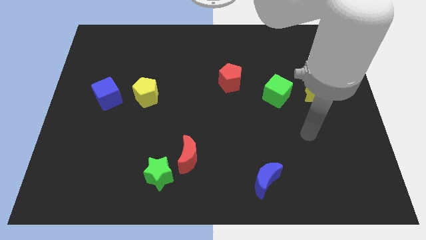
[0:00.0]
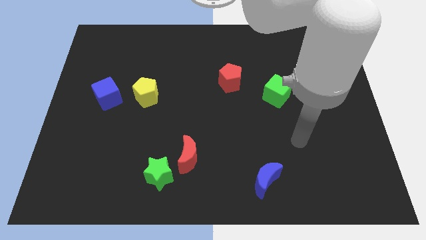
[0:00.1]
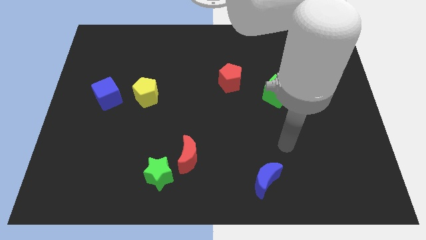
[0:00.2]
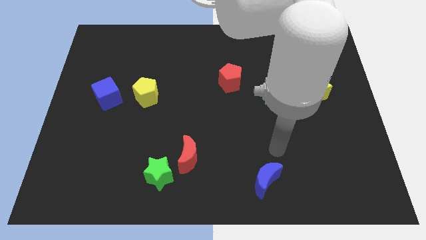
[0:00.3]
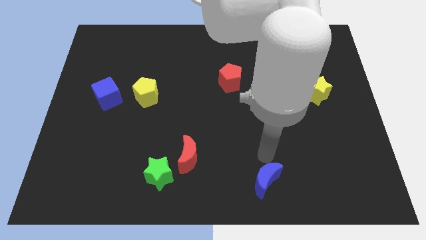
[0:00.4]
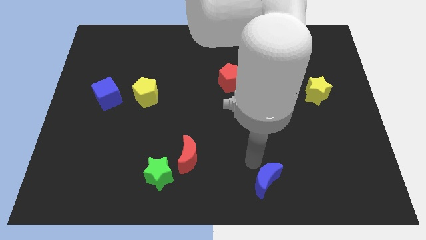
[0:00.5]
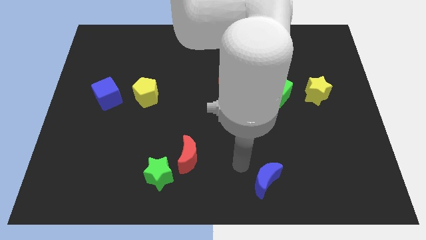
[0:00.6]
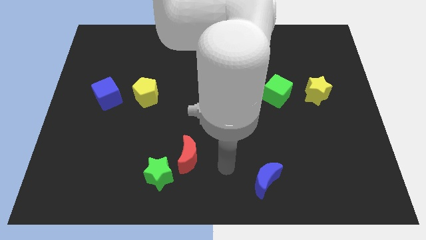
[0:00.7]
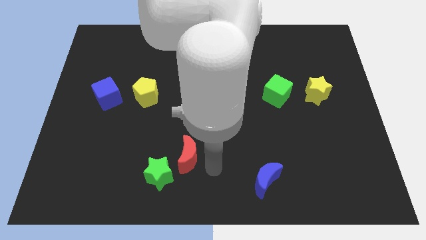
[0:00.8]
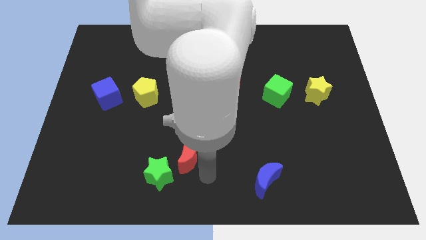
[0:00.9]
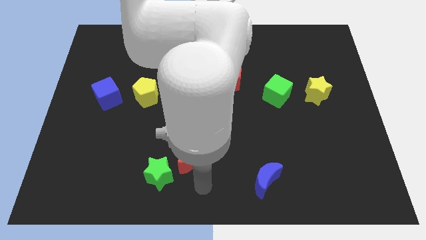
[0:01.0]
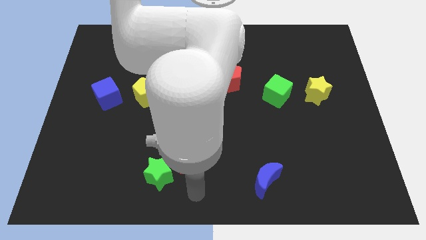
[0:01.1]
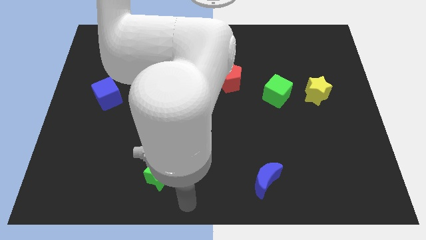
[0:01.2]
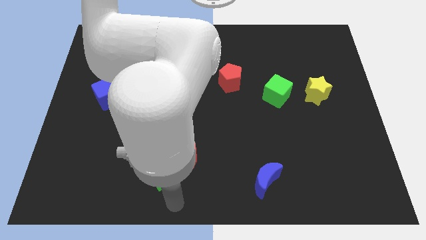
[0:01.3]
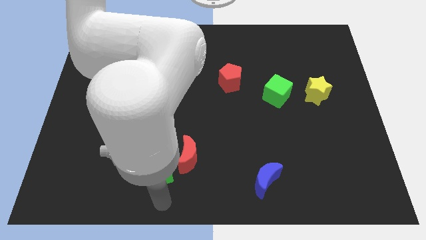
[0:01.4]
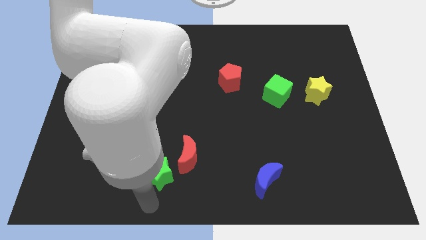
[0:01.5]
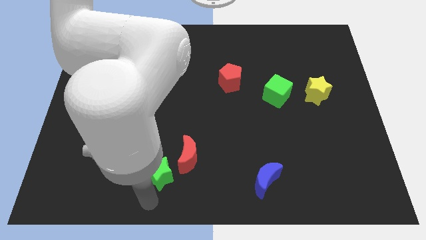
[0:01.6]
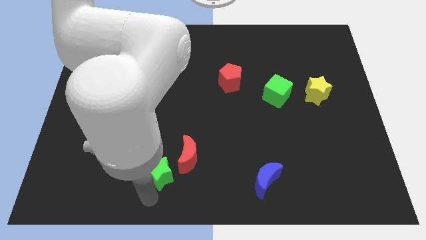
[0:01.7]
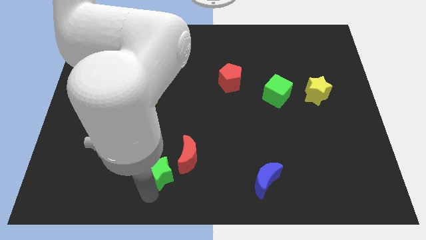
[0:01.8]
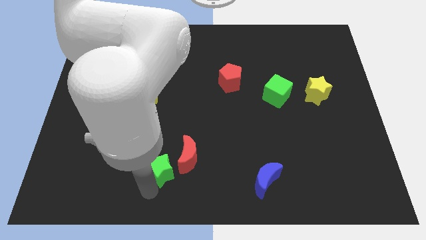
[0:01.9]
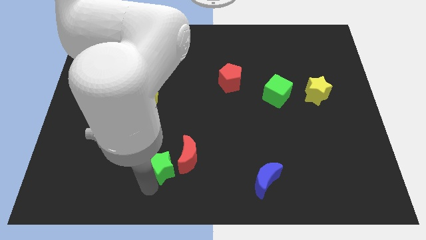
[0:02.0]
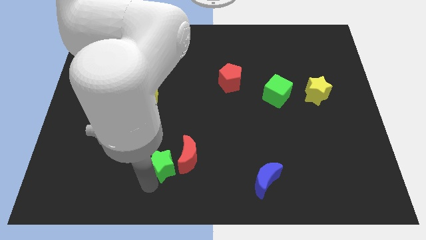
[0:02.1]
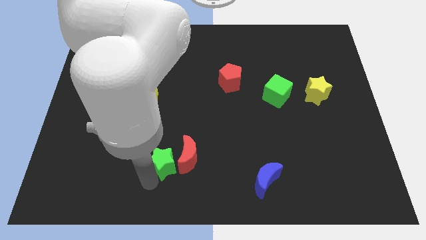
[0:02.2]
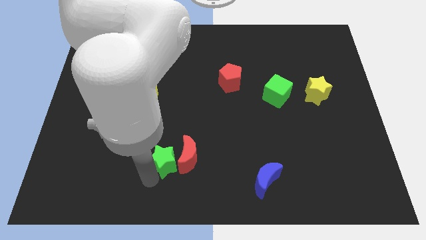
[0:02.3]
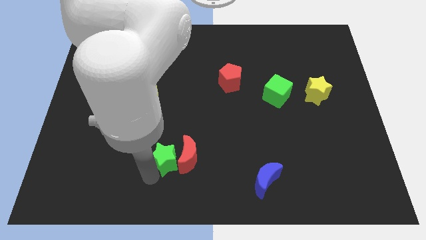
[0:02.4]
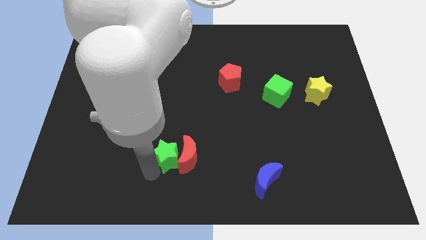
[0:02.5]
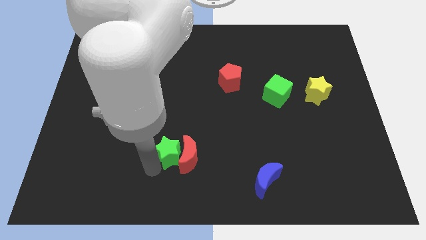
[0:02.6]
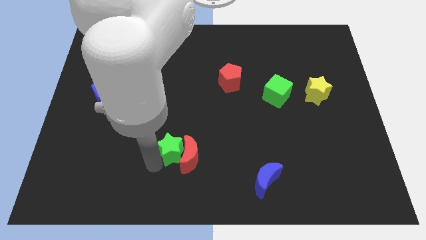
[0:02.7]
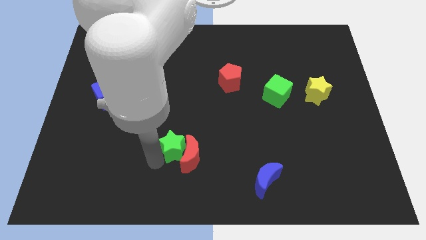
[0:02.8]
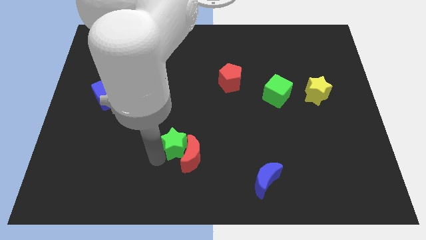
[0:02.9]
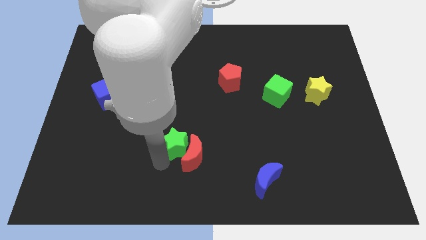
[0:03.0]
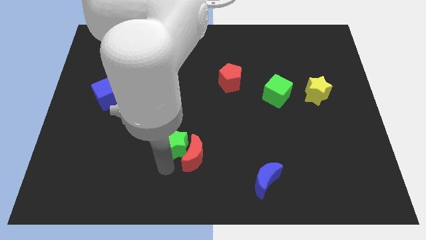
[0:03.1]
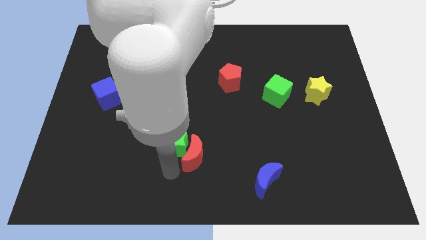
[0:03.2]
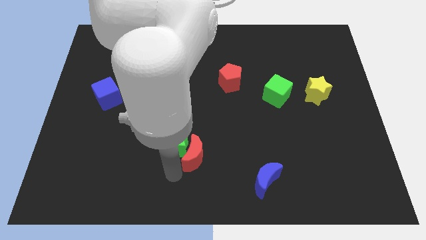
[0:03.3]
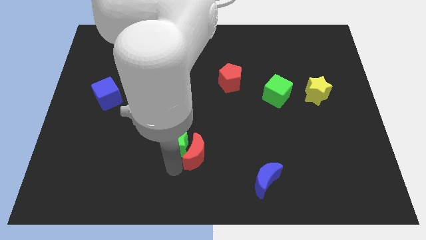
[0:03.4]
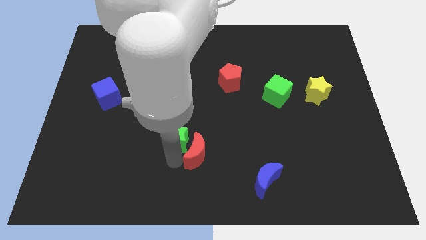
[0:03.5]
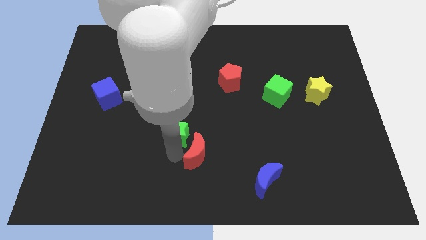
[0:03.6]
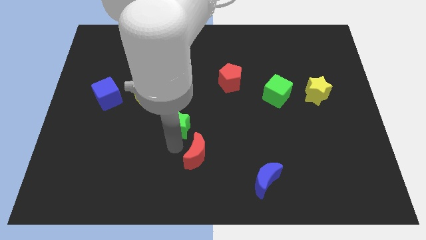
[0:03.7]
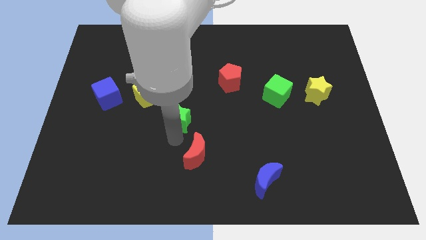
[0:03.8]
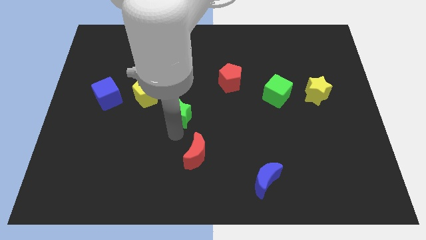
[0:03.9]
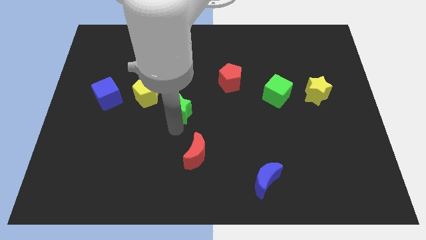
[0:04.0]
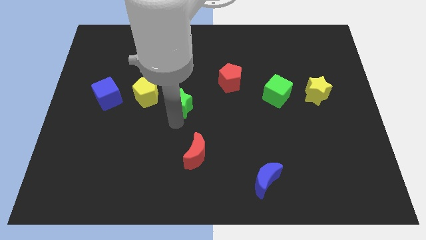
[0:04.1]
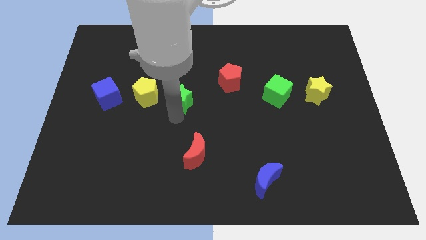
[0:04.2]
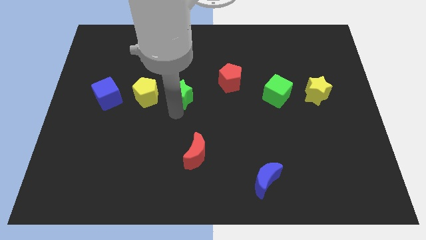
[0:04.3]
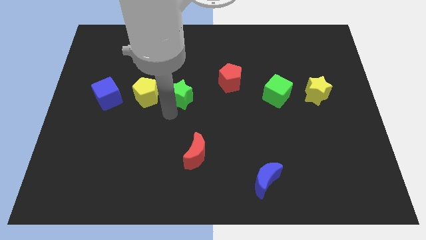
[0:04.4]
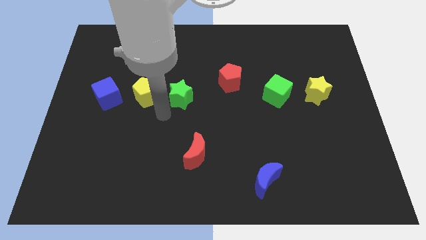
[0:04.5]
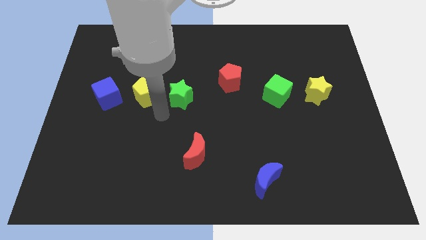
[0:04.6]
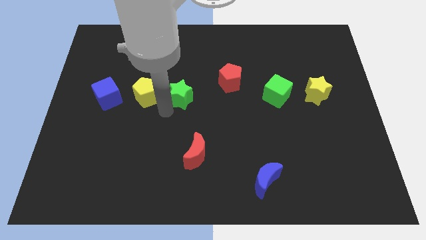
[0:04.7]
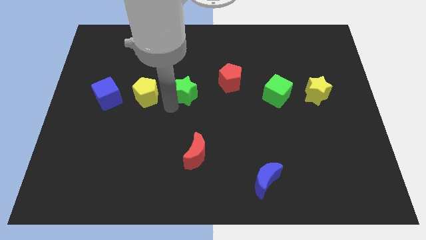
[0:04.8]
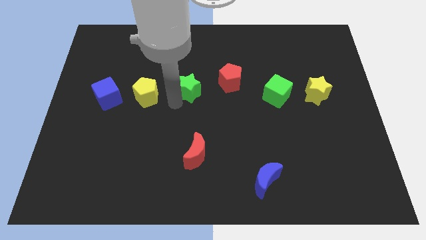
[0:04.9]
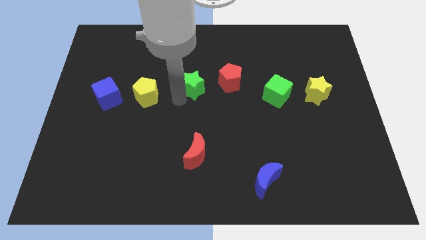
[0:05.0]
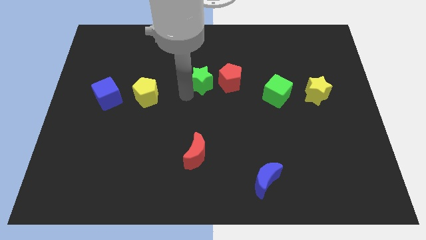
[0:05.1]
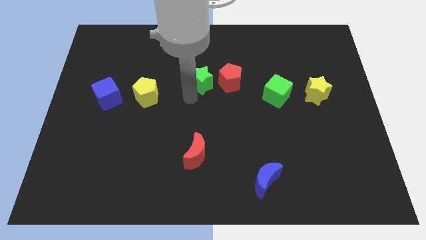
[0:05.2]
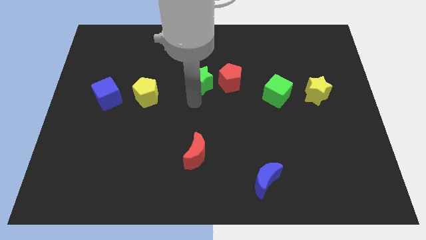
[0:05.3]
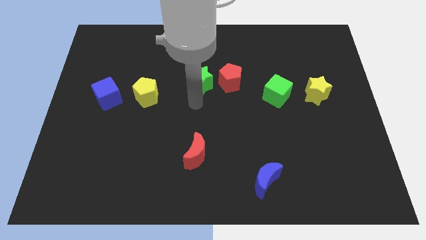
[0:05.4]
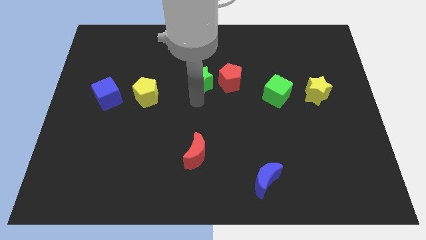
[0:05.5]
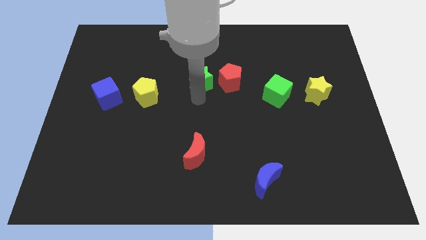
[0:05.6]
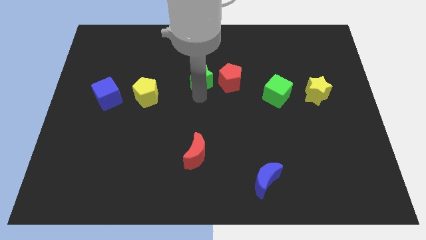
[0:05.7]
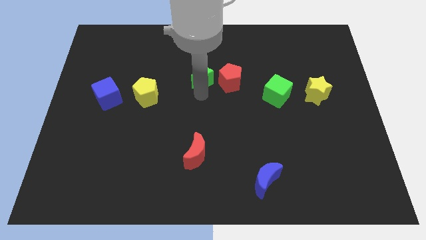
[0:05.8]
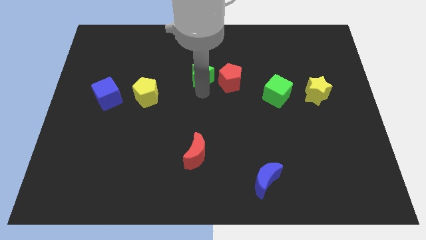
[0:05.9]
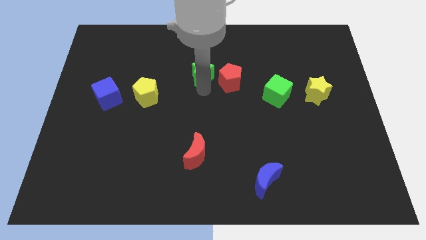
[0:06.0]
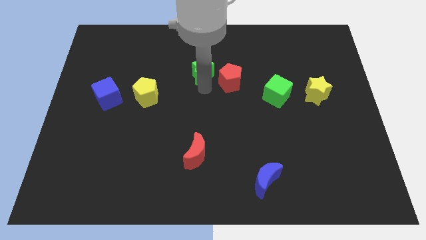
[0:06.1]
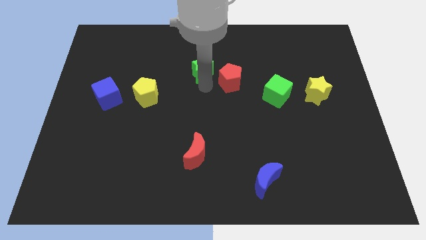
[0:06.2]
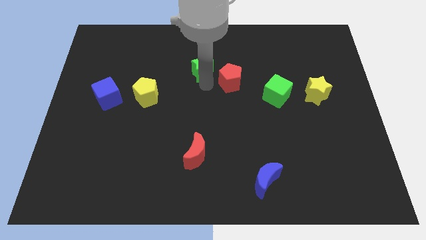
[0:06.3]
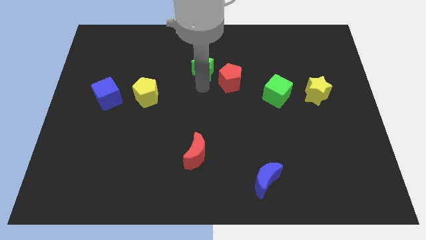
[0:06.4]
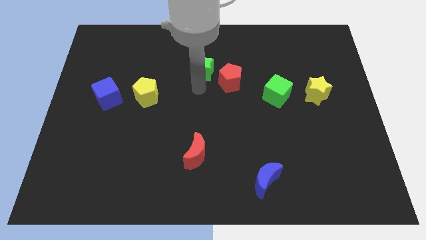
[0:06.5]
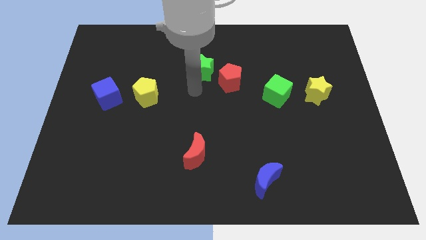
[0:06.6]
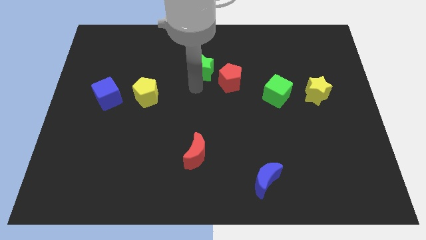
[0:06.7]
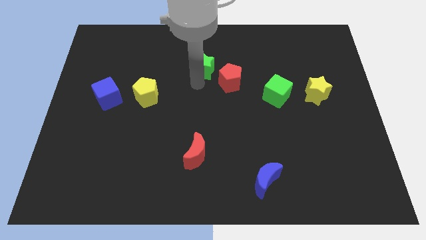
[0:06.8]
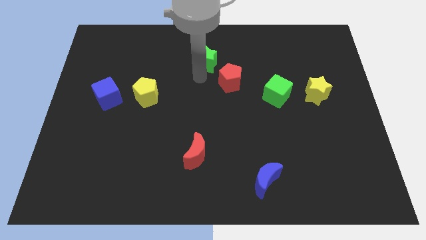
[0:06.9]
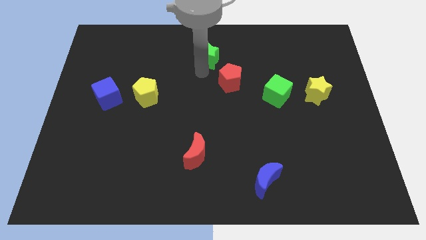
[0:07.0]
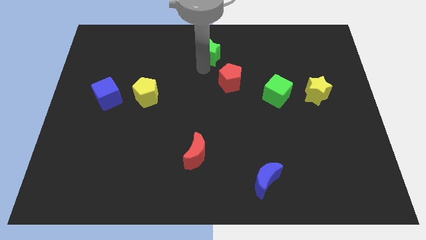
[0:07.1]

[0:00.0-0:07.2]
slide the green star to the top side
